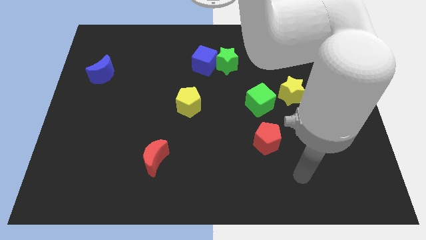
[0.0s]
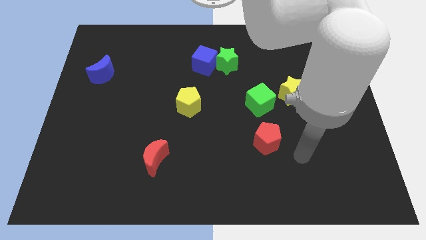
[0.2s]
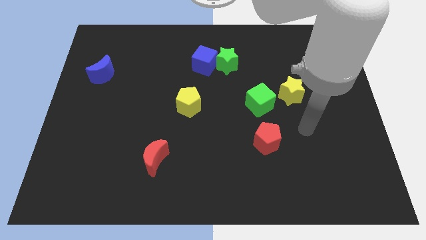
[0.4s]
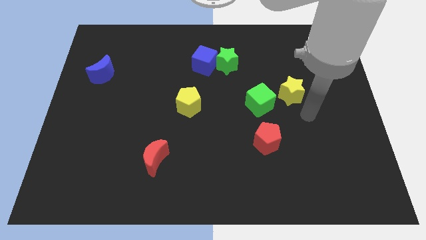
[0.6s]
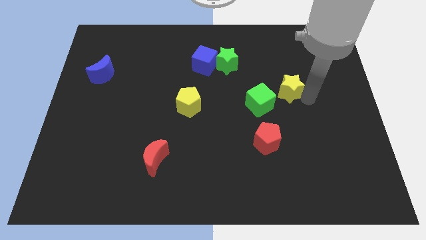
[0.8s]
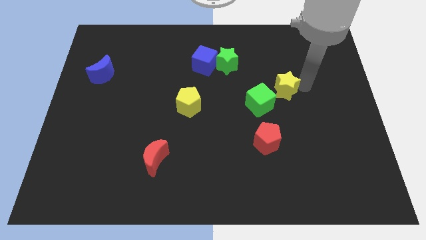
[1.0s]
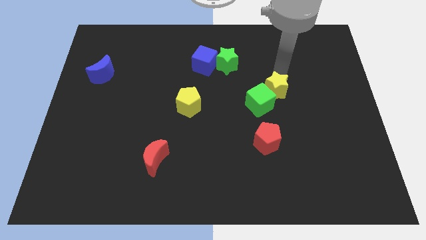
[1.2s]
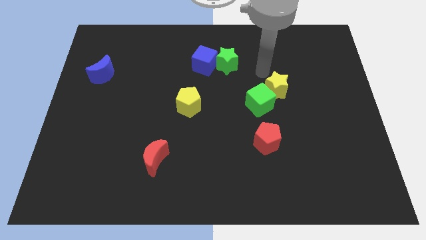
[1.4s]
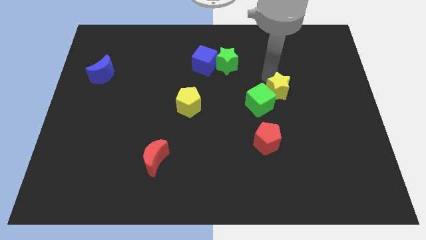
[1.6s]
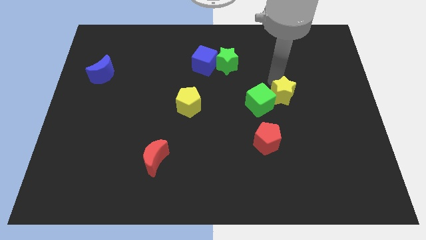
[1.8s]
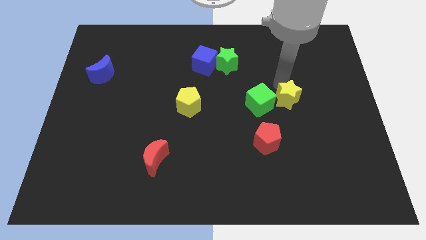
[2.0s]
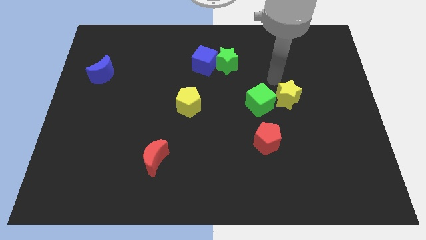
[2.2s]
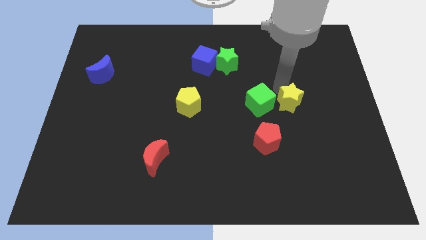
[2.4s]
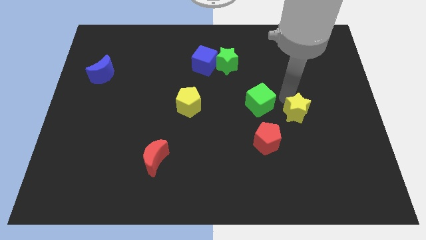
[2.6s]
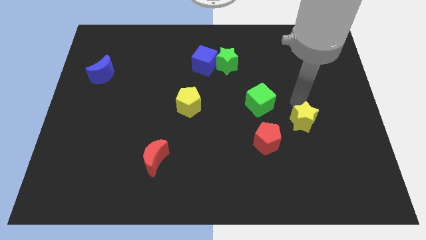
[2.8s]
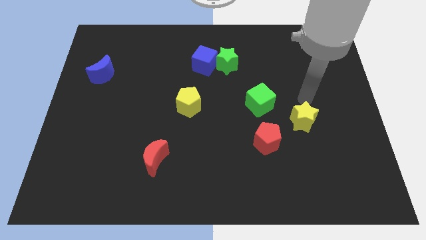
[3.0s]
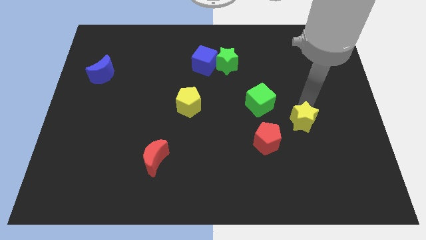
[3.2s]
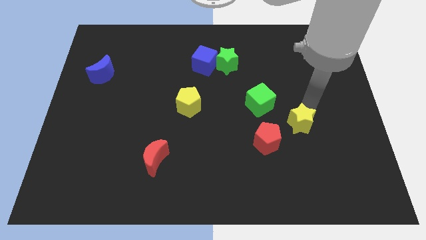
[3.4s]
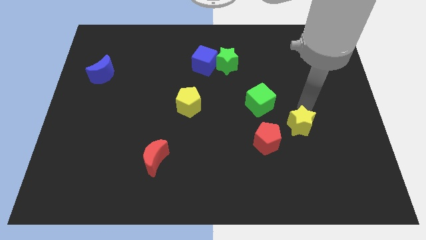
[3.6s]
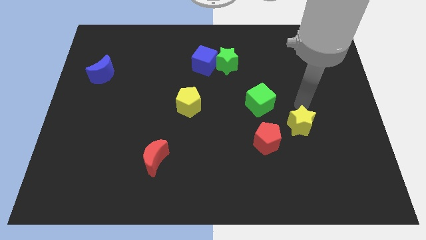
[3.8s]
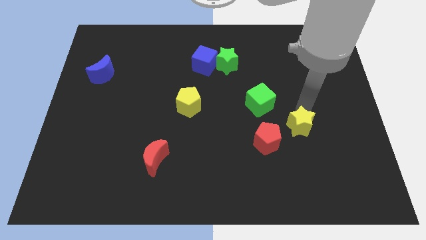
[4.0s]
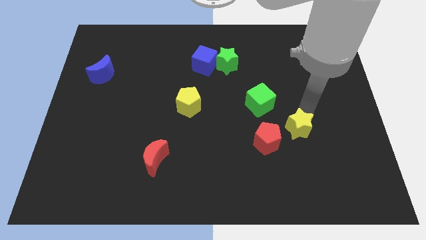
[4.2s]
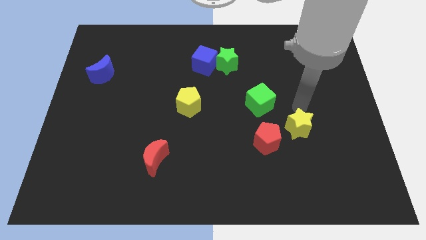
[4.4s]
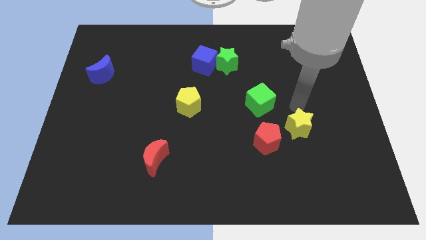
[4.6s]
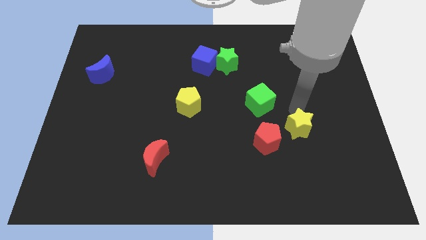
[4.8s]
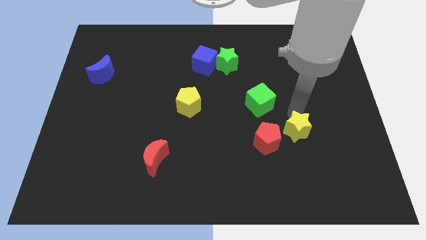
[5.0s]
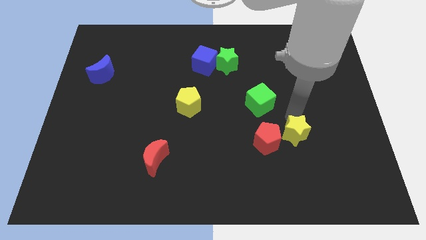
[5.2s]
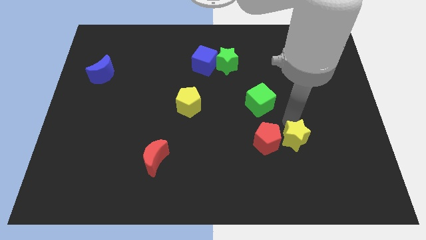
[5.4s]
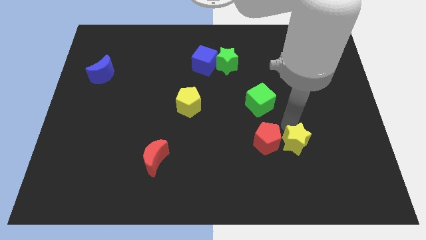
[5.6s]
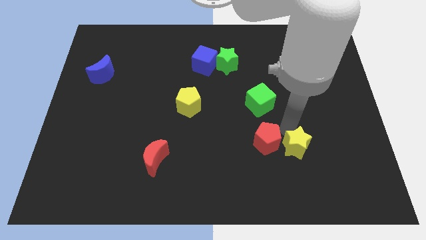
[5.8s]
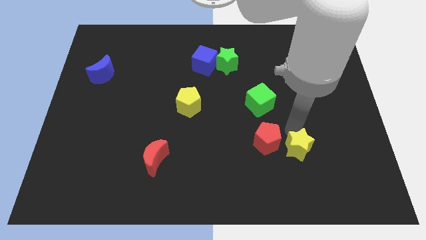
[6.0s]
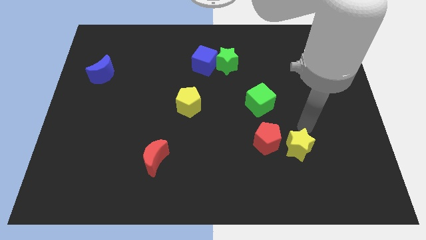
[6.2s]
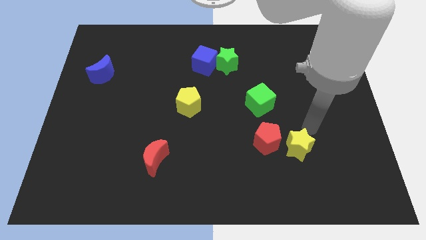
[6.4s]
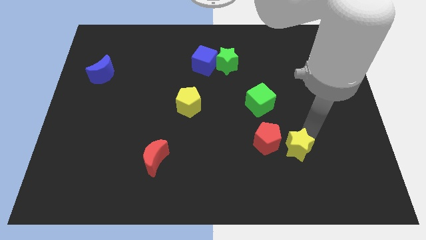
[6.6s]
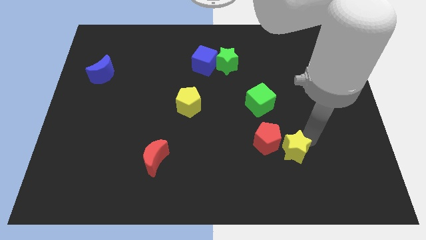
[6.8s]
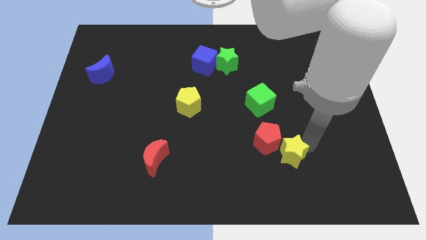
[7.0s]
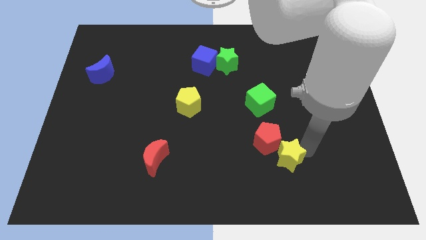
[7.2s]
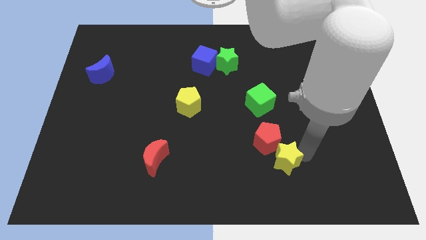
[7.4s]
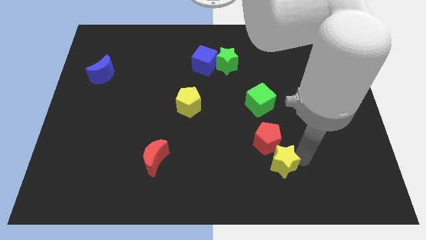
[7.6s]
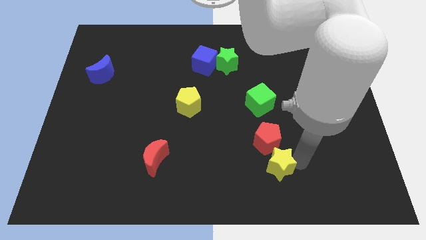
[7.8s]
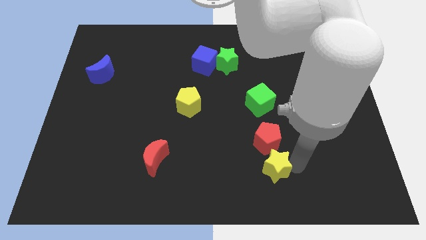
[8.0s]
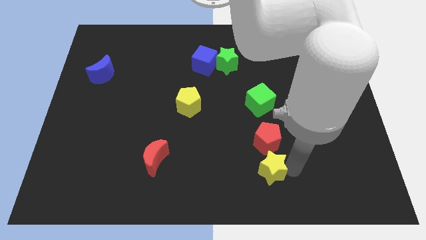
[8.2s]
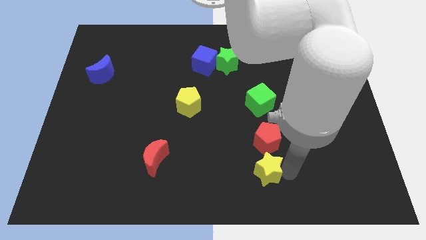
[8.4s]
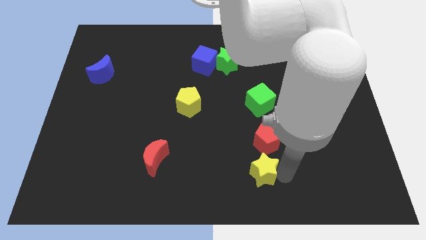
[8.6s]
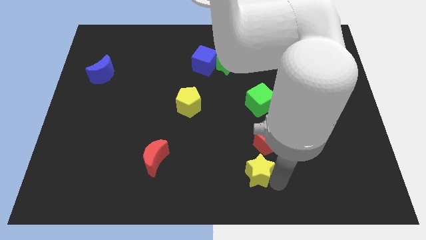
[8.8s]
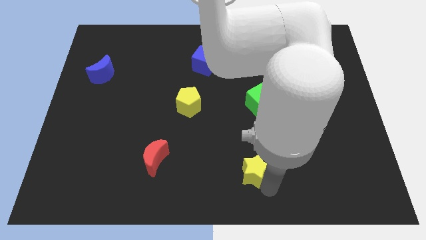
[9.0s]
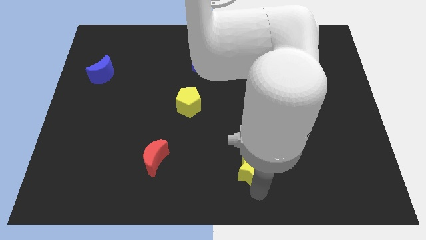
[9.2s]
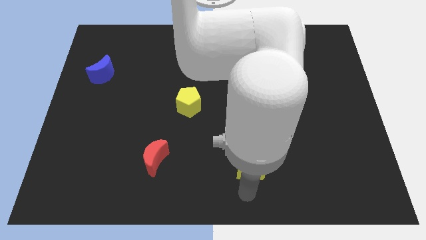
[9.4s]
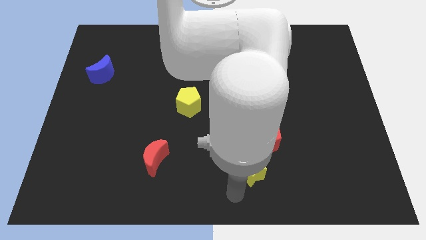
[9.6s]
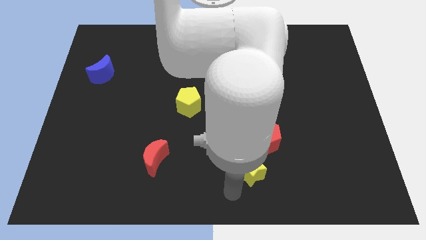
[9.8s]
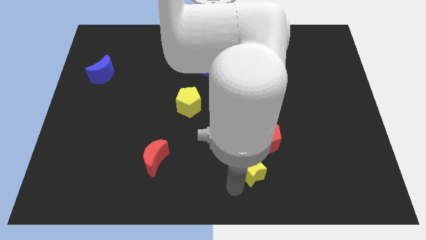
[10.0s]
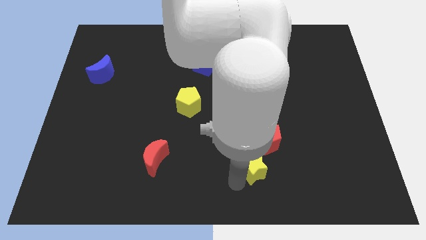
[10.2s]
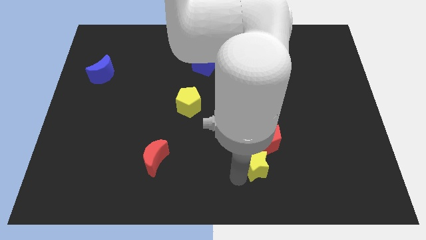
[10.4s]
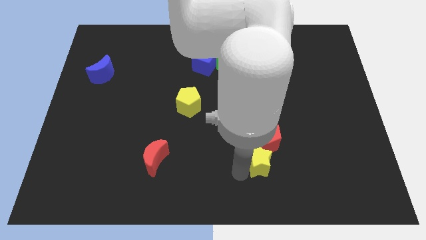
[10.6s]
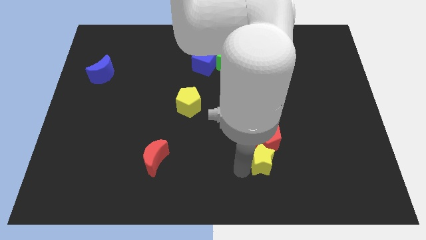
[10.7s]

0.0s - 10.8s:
push the yellow star to the bottom of the green cube

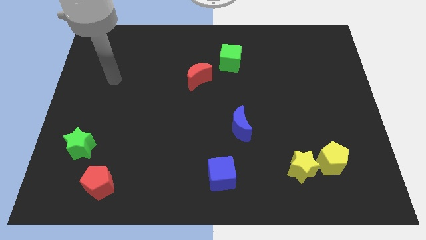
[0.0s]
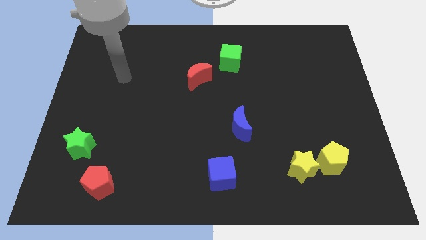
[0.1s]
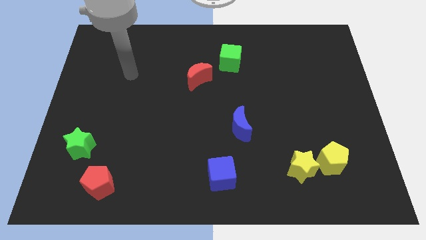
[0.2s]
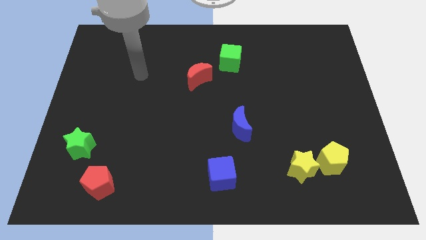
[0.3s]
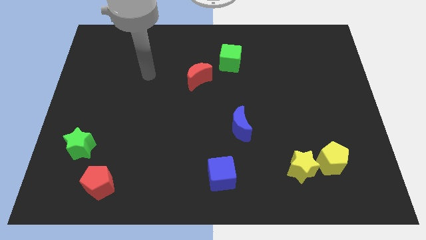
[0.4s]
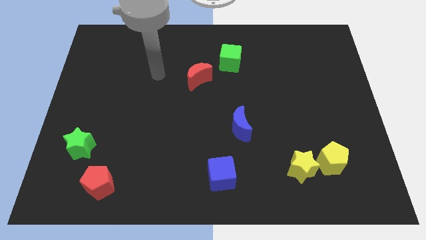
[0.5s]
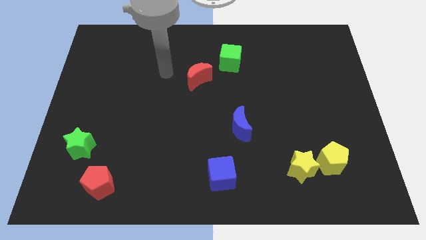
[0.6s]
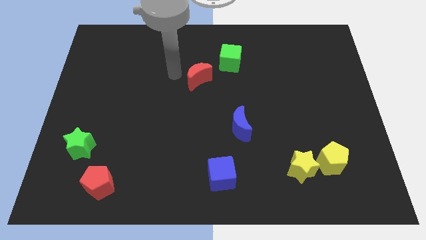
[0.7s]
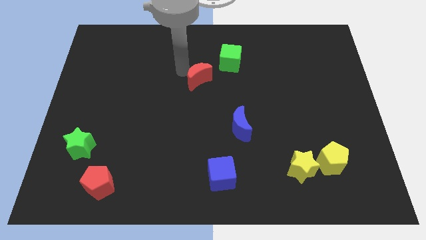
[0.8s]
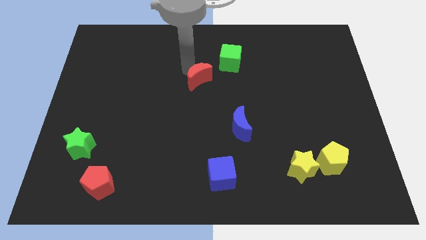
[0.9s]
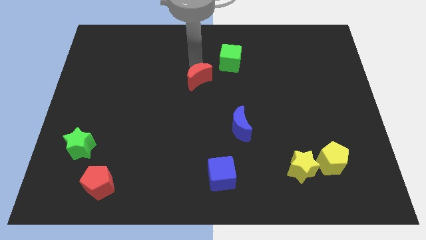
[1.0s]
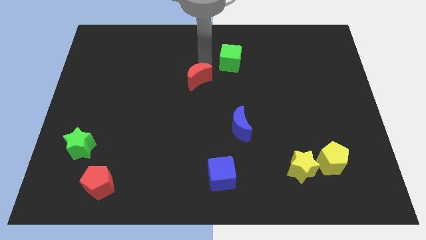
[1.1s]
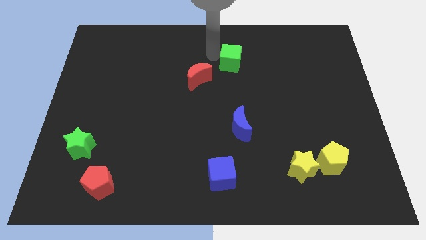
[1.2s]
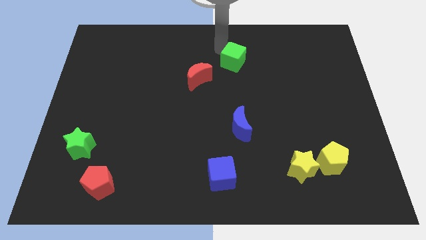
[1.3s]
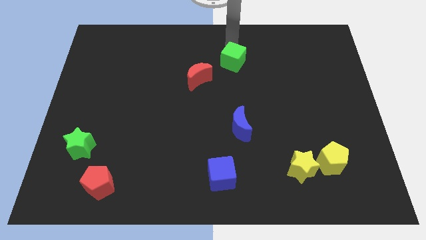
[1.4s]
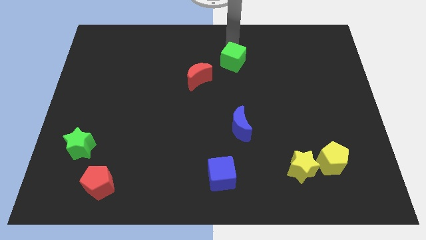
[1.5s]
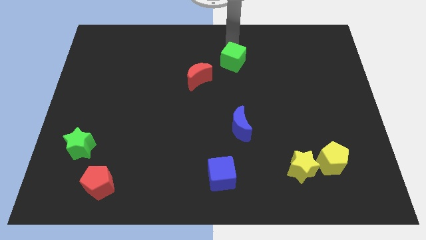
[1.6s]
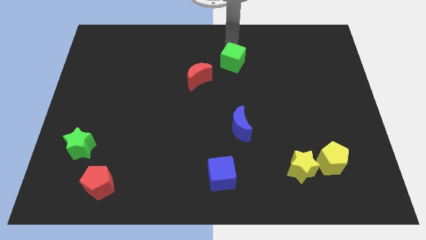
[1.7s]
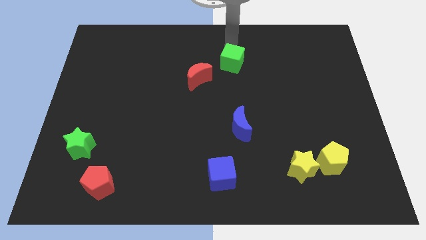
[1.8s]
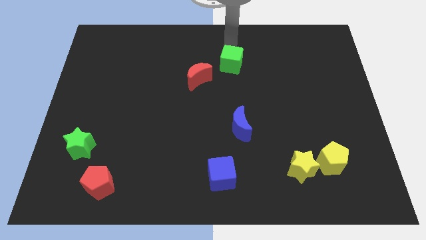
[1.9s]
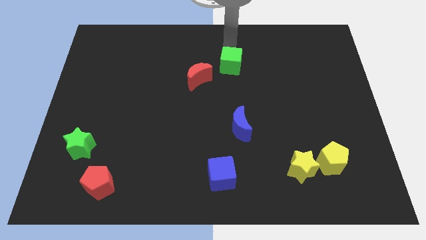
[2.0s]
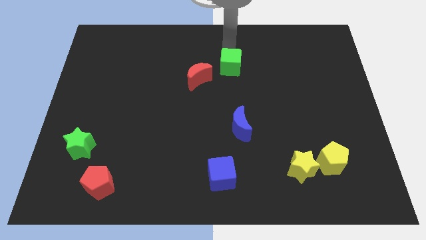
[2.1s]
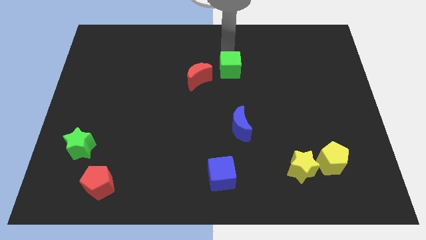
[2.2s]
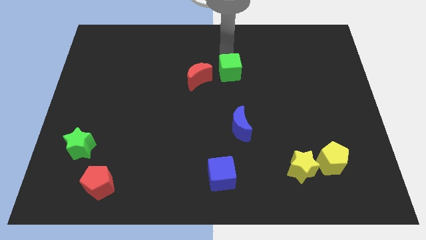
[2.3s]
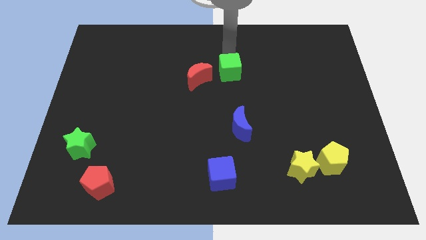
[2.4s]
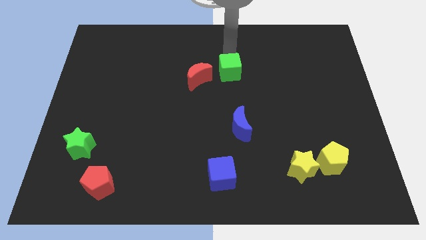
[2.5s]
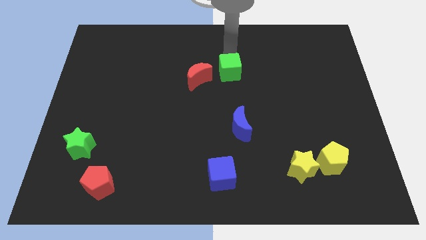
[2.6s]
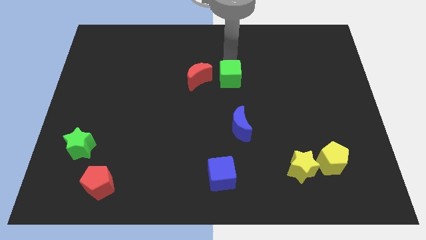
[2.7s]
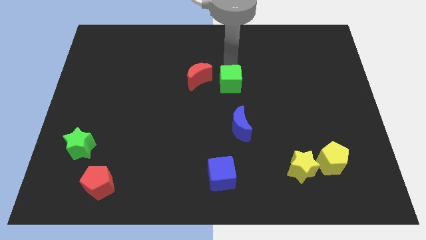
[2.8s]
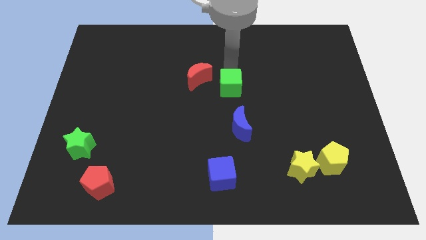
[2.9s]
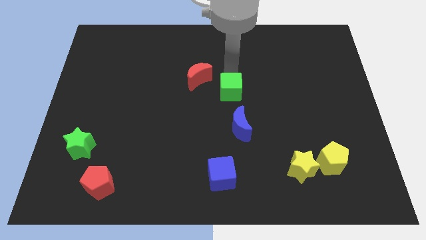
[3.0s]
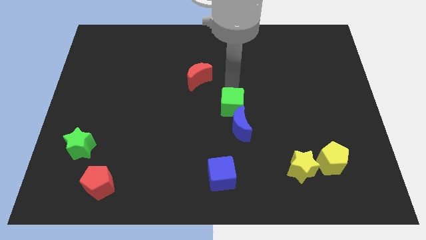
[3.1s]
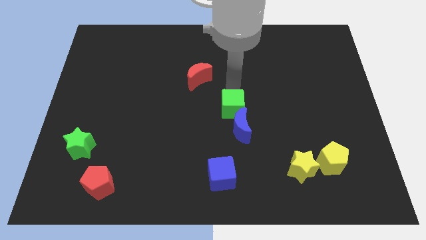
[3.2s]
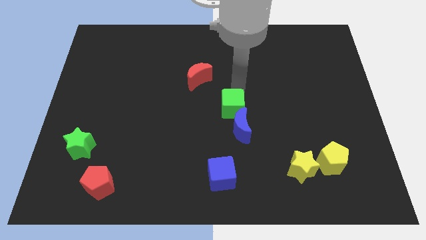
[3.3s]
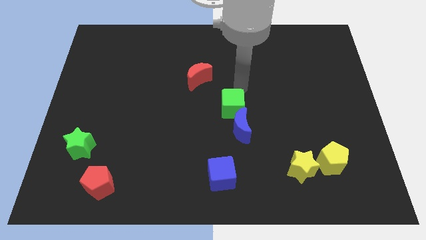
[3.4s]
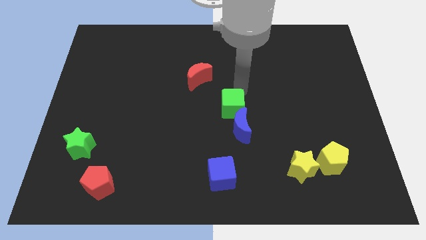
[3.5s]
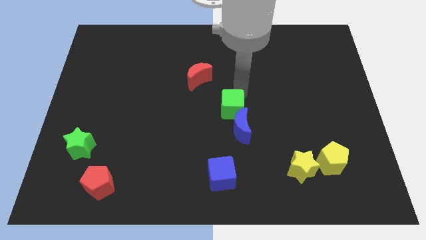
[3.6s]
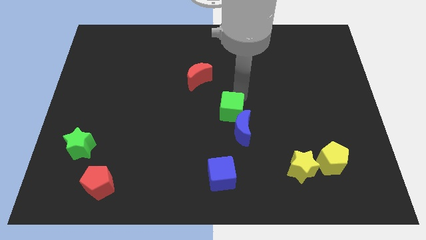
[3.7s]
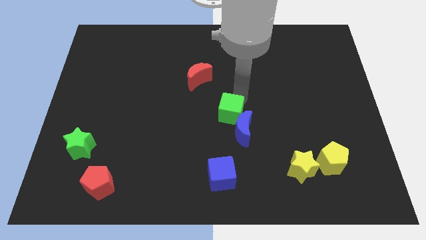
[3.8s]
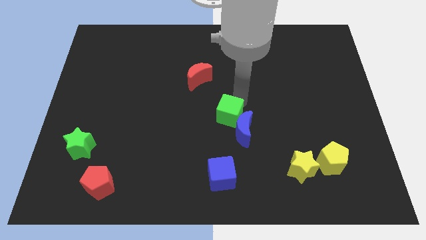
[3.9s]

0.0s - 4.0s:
put the green cube to the top side of the blue cube
